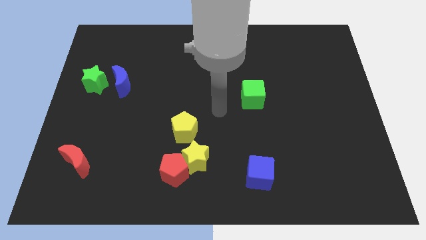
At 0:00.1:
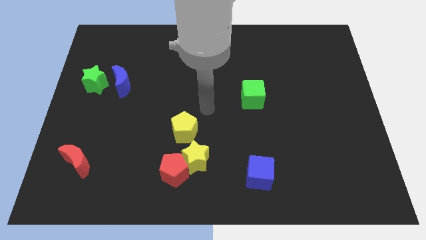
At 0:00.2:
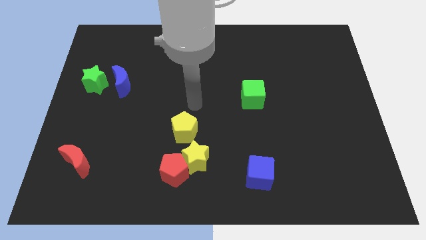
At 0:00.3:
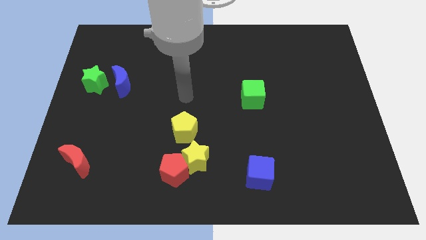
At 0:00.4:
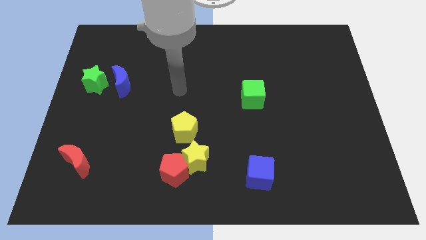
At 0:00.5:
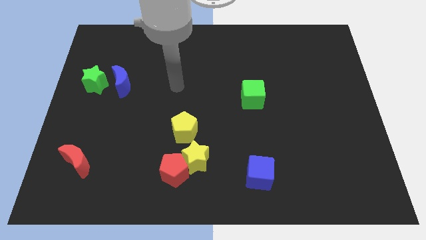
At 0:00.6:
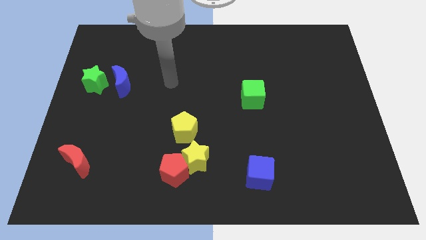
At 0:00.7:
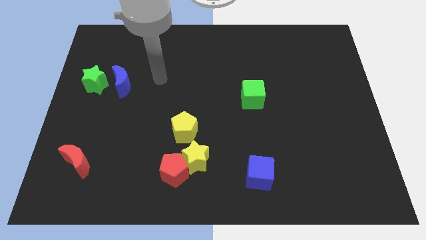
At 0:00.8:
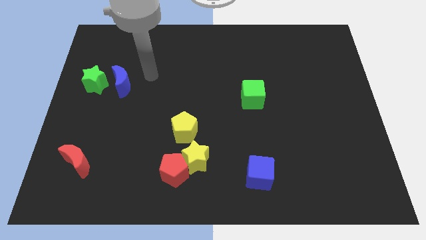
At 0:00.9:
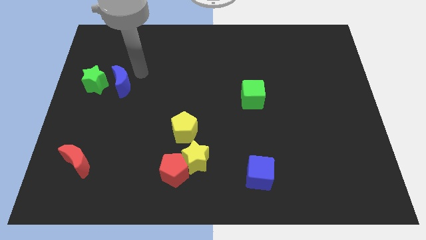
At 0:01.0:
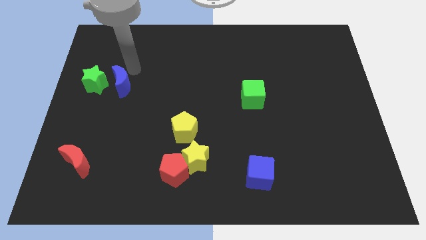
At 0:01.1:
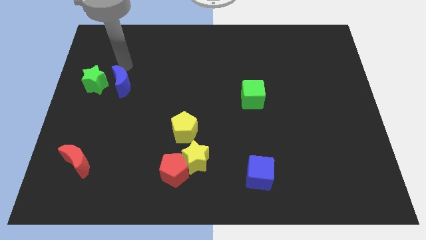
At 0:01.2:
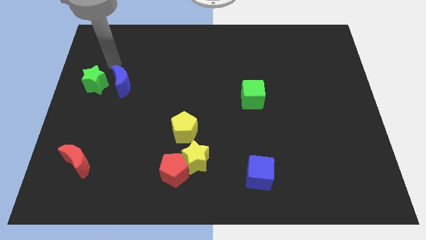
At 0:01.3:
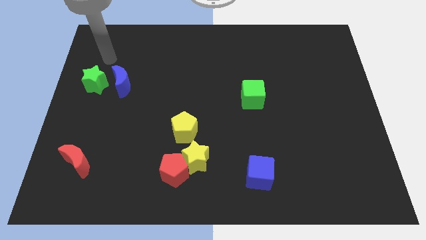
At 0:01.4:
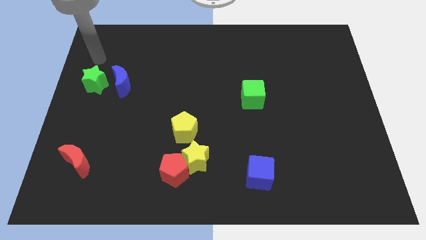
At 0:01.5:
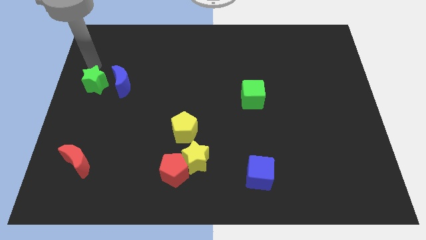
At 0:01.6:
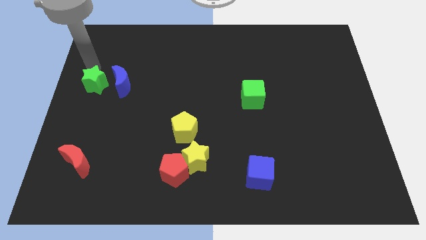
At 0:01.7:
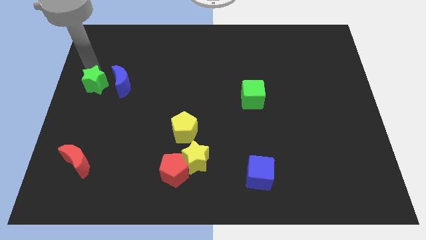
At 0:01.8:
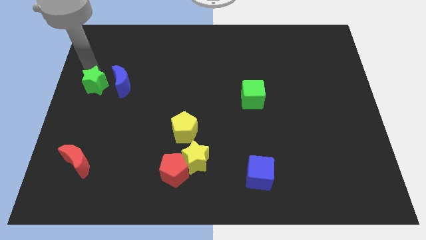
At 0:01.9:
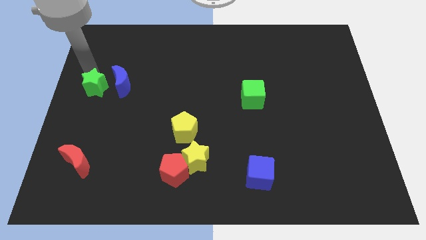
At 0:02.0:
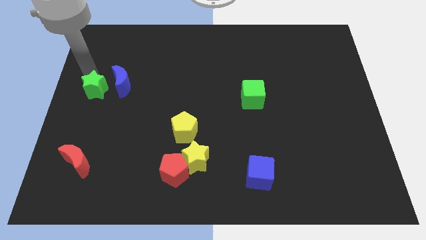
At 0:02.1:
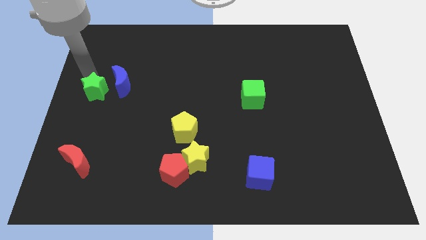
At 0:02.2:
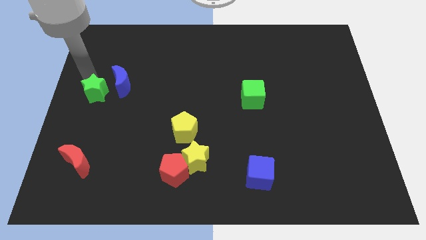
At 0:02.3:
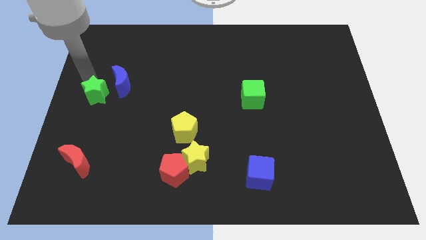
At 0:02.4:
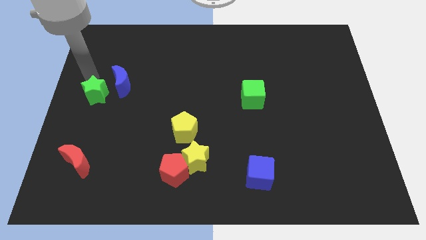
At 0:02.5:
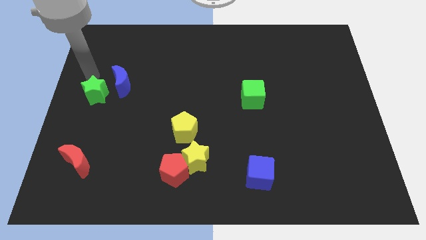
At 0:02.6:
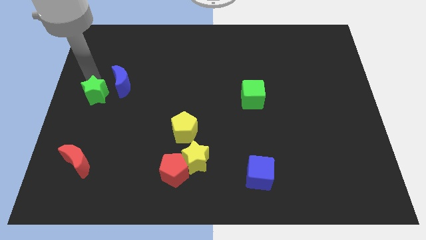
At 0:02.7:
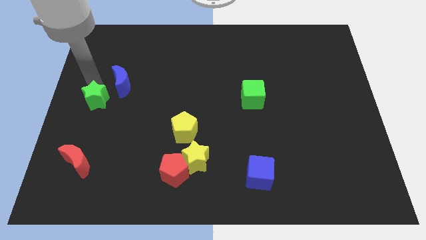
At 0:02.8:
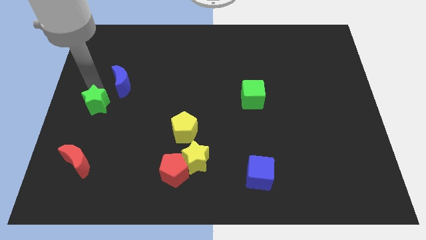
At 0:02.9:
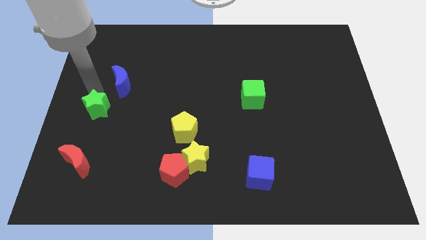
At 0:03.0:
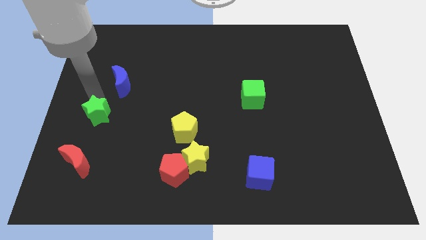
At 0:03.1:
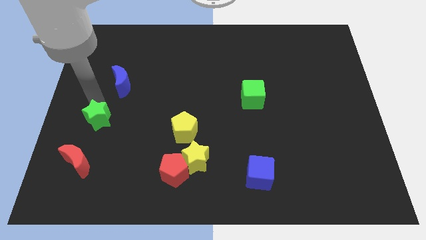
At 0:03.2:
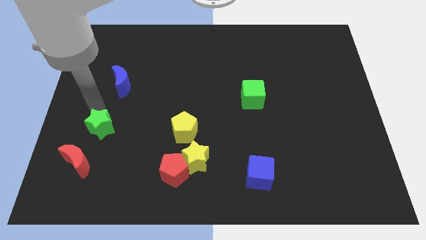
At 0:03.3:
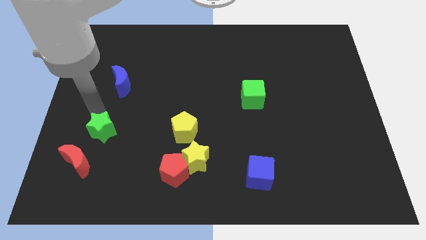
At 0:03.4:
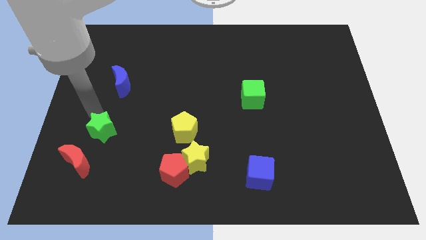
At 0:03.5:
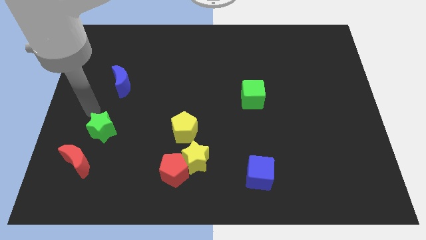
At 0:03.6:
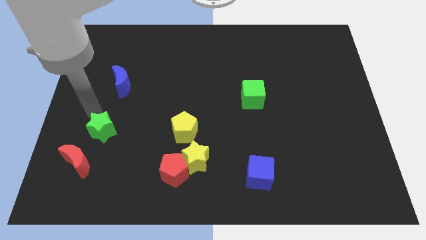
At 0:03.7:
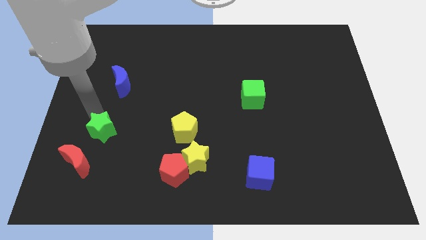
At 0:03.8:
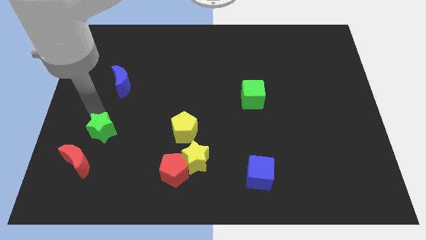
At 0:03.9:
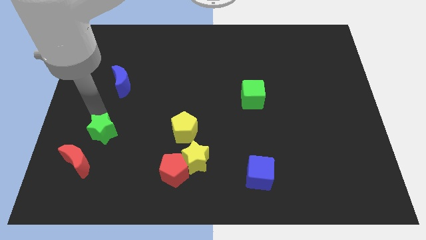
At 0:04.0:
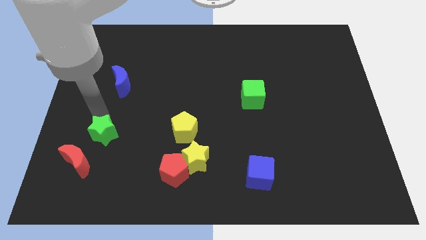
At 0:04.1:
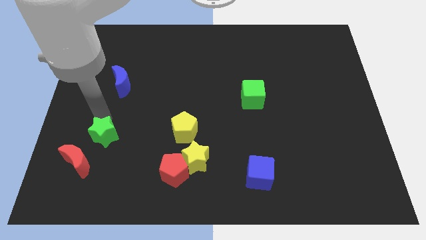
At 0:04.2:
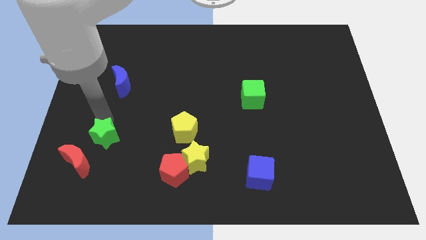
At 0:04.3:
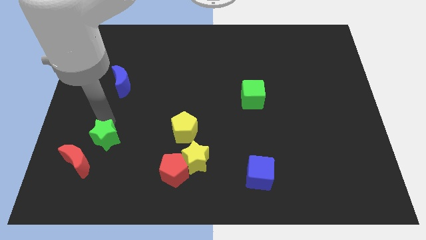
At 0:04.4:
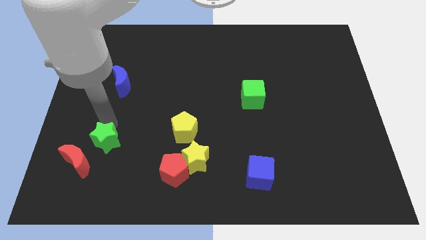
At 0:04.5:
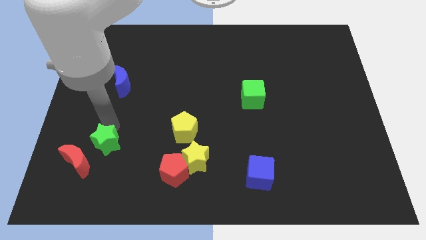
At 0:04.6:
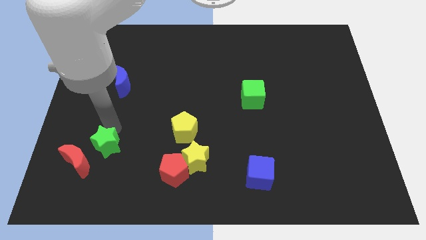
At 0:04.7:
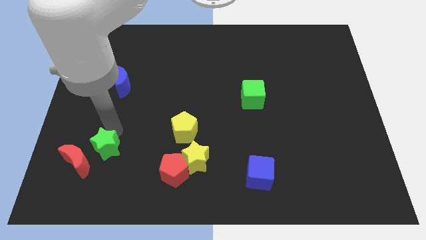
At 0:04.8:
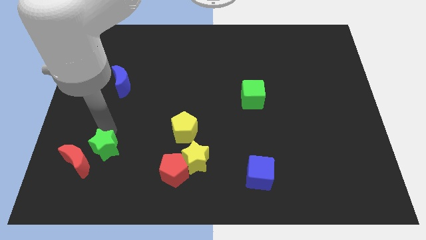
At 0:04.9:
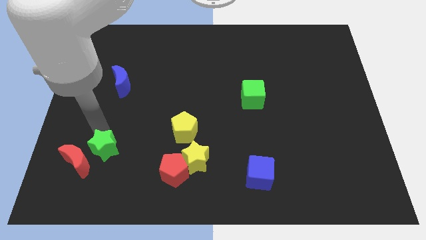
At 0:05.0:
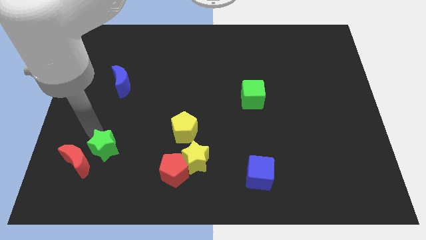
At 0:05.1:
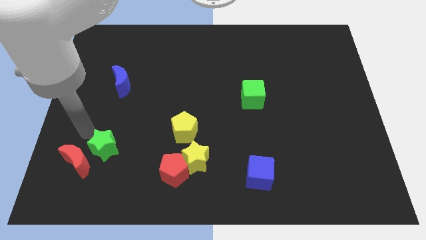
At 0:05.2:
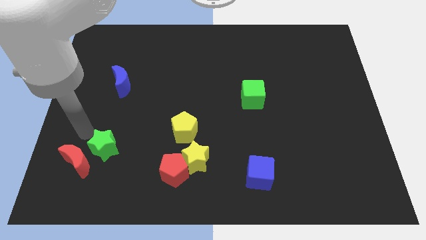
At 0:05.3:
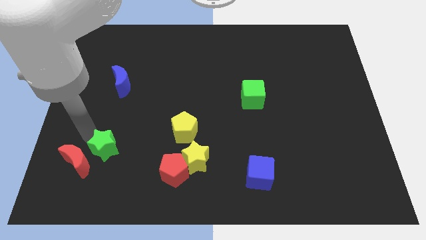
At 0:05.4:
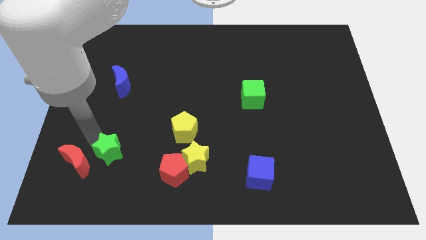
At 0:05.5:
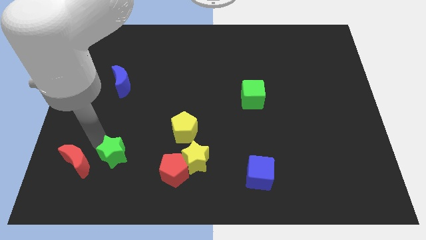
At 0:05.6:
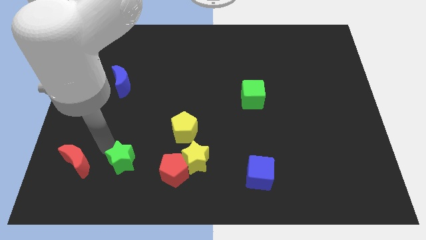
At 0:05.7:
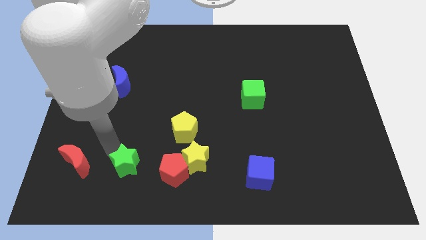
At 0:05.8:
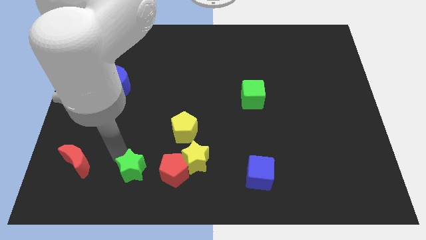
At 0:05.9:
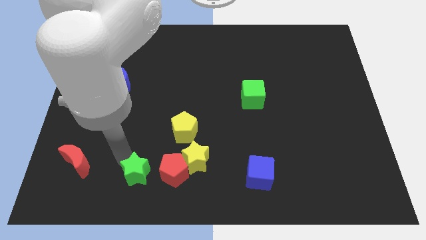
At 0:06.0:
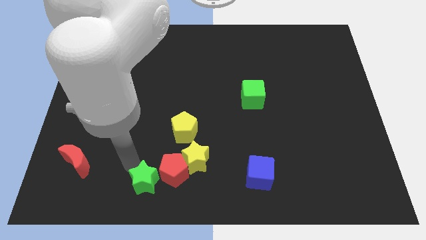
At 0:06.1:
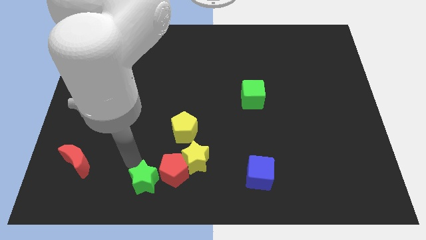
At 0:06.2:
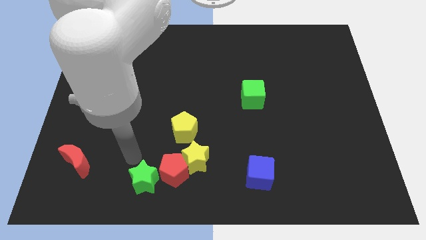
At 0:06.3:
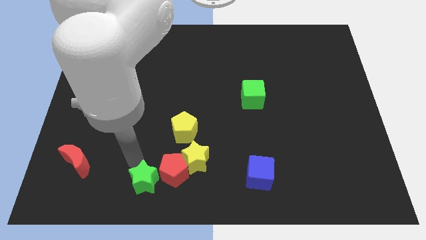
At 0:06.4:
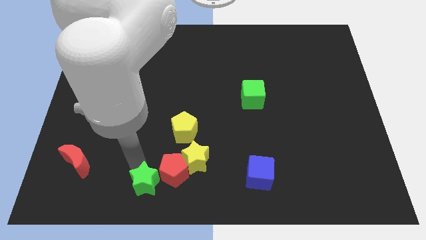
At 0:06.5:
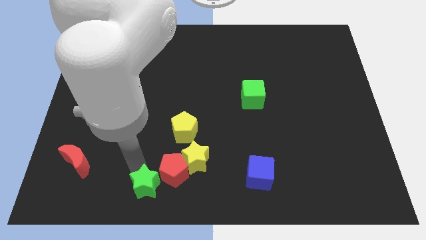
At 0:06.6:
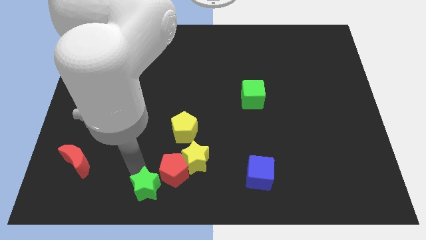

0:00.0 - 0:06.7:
push the green star to the bottom side
